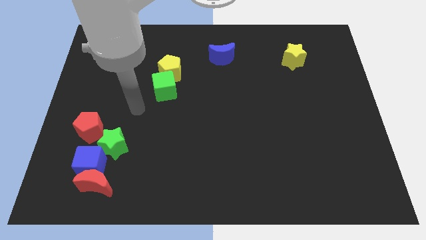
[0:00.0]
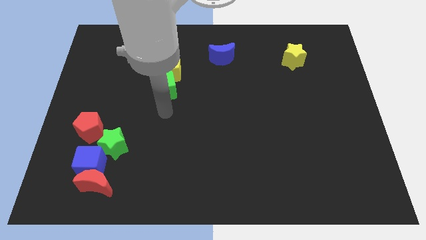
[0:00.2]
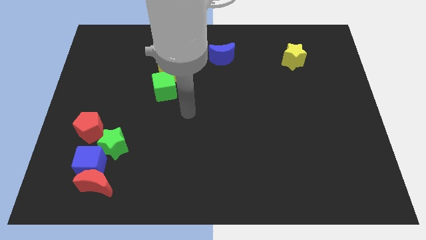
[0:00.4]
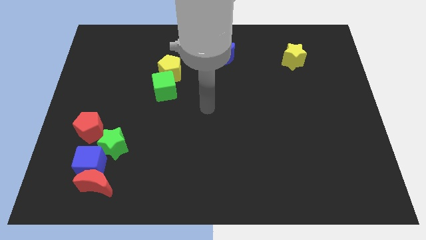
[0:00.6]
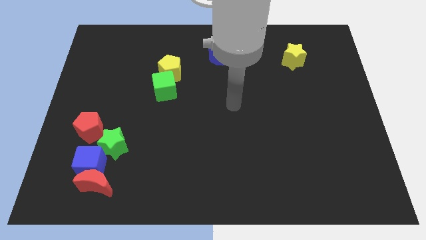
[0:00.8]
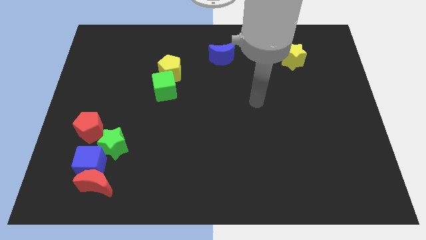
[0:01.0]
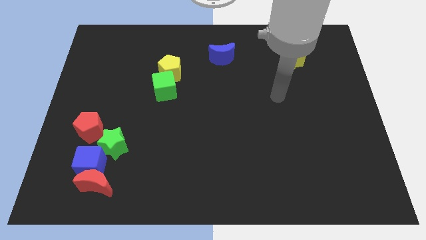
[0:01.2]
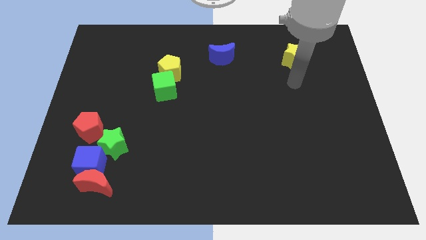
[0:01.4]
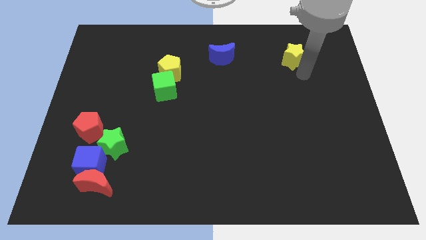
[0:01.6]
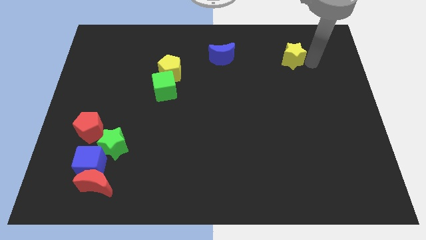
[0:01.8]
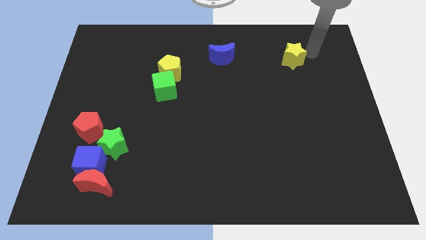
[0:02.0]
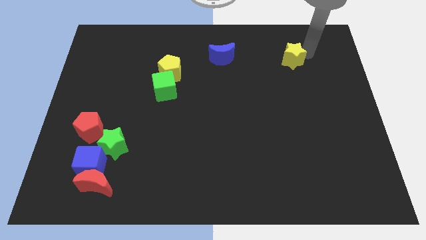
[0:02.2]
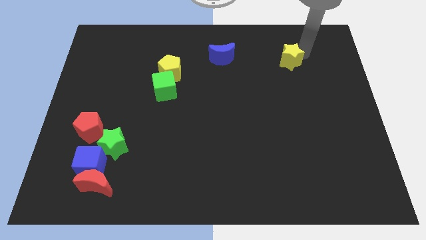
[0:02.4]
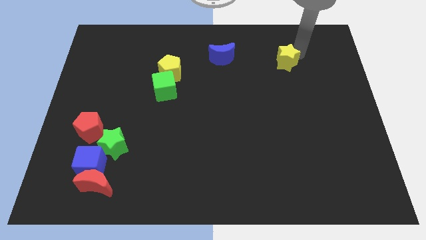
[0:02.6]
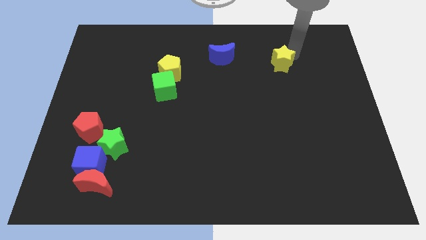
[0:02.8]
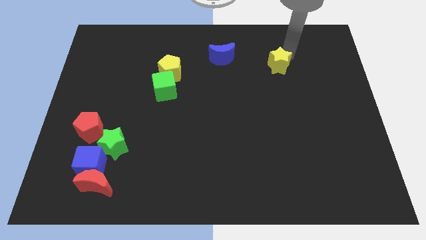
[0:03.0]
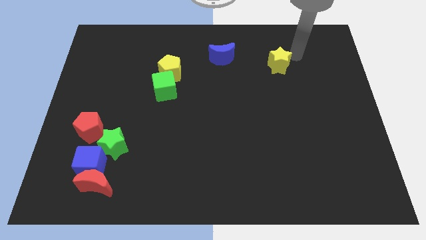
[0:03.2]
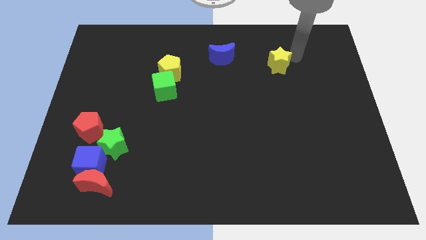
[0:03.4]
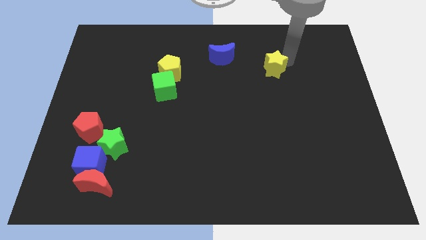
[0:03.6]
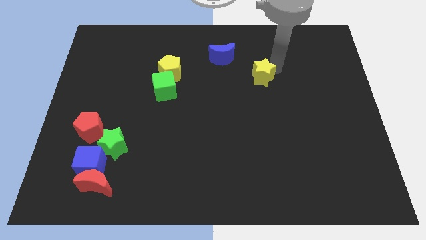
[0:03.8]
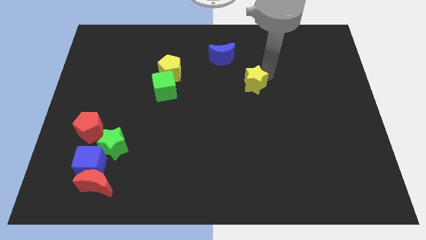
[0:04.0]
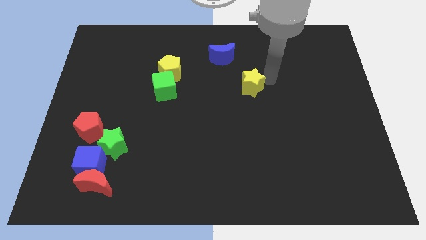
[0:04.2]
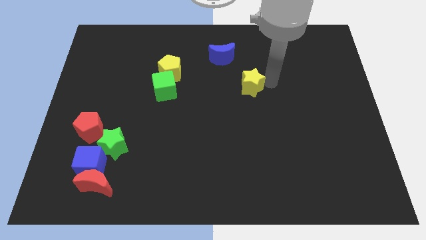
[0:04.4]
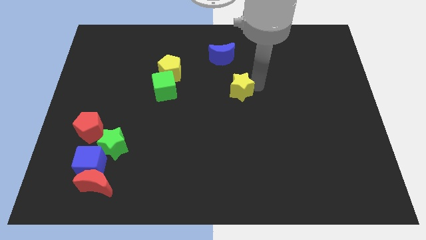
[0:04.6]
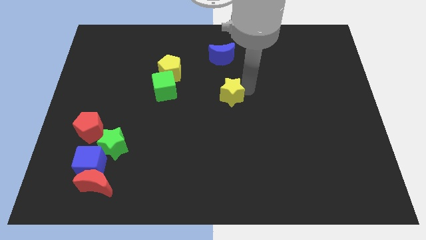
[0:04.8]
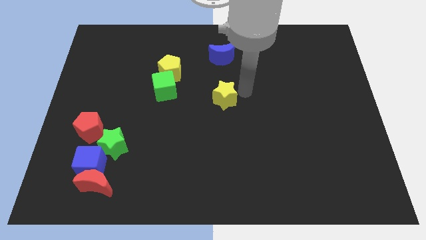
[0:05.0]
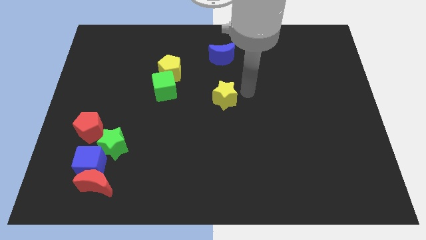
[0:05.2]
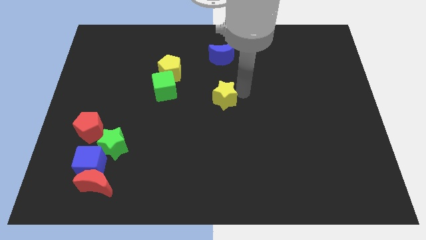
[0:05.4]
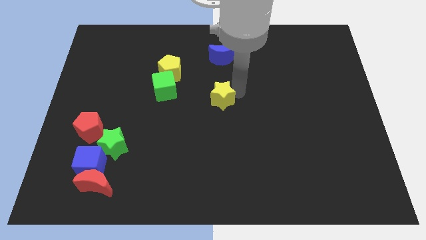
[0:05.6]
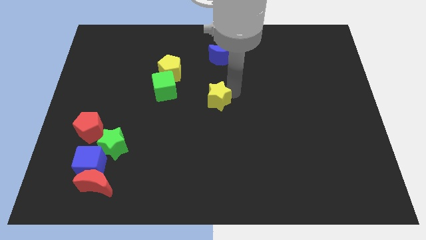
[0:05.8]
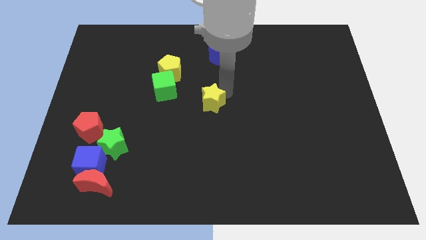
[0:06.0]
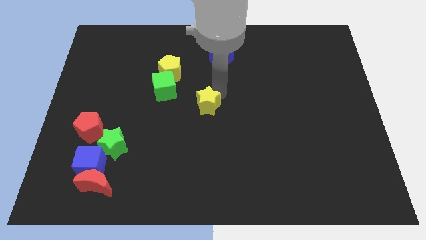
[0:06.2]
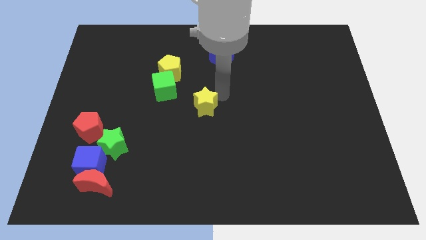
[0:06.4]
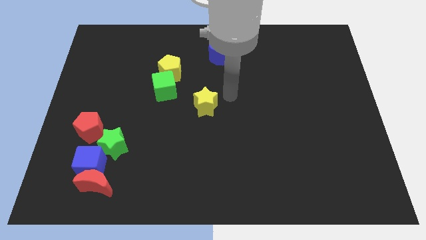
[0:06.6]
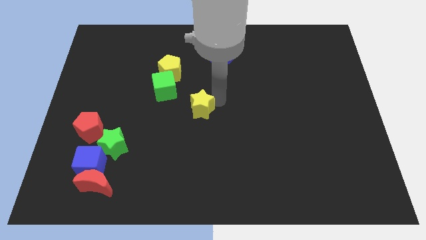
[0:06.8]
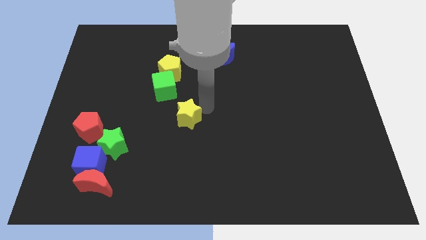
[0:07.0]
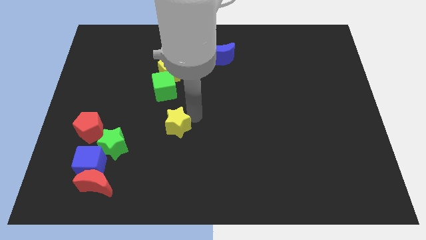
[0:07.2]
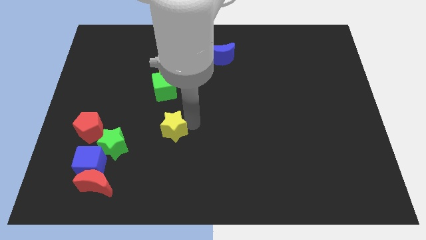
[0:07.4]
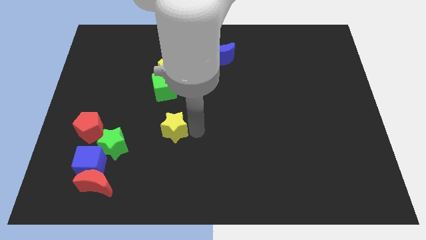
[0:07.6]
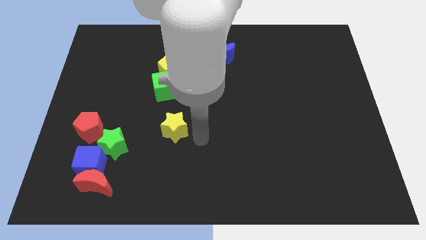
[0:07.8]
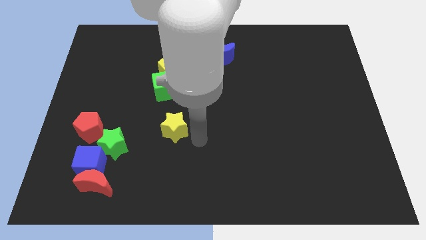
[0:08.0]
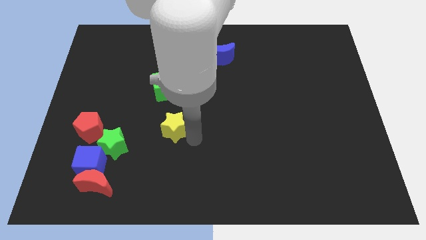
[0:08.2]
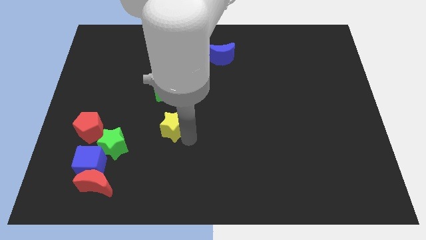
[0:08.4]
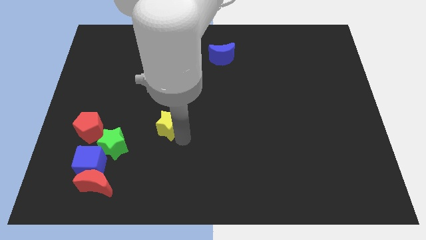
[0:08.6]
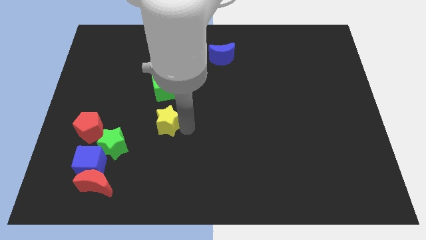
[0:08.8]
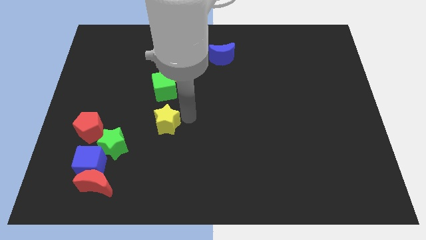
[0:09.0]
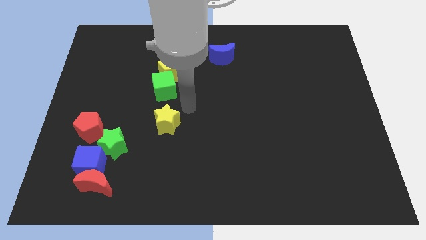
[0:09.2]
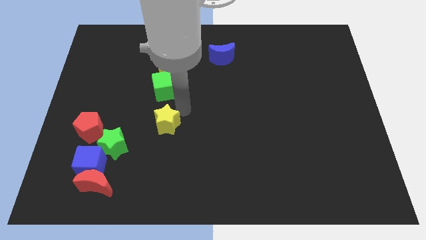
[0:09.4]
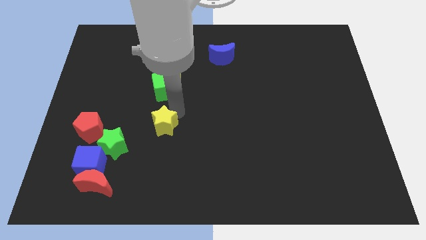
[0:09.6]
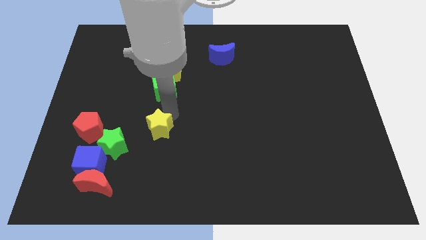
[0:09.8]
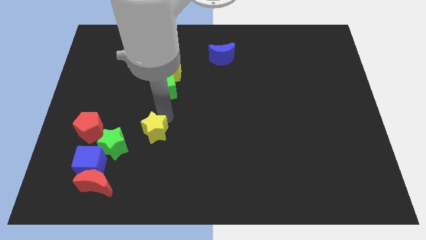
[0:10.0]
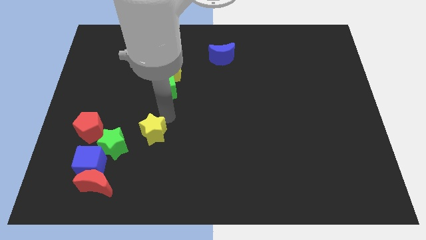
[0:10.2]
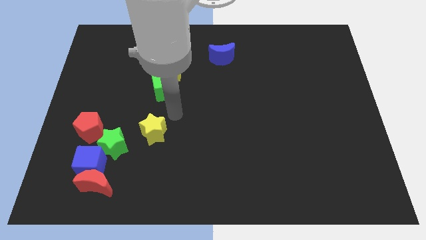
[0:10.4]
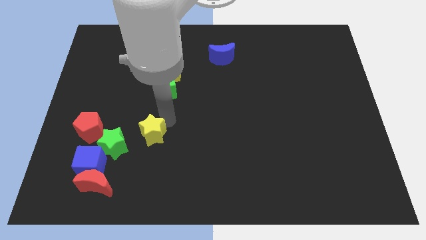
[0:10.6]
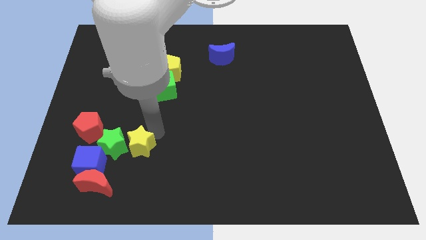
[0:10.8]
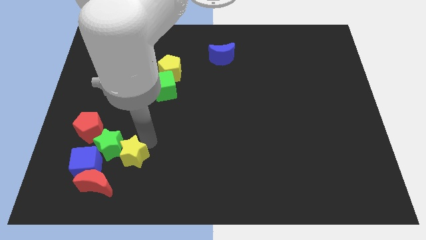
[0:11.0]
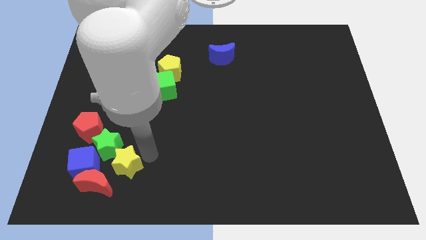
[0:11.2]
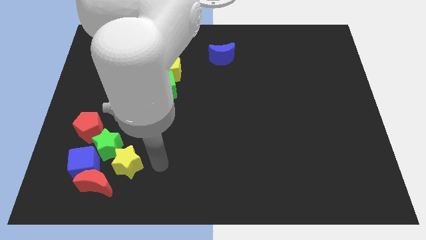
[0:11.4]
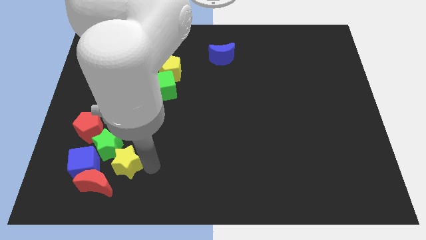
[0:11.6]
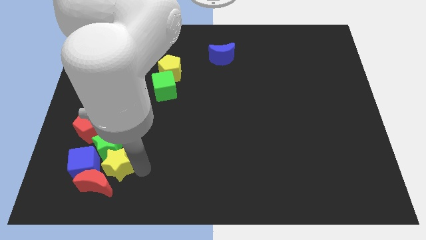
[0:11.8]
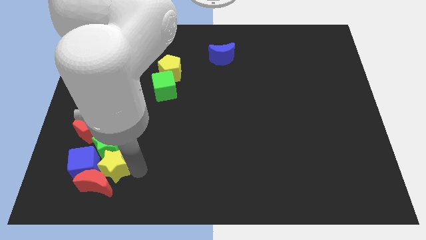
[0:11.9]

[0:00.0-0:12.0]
move the yellow star to the blue cube
